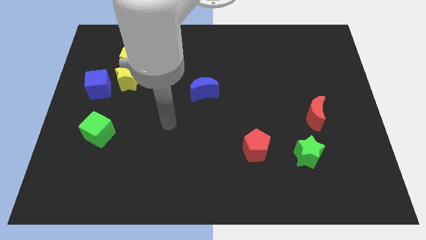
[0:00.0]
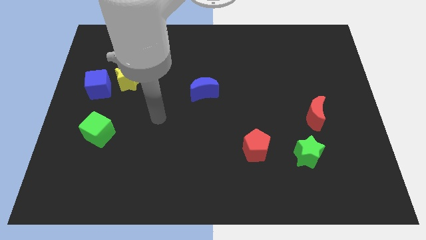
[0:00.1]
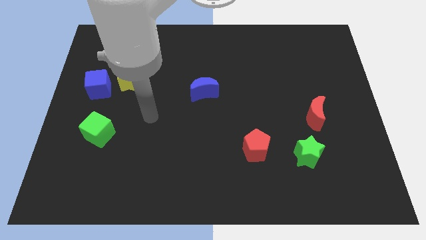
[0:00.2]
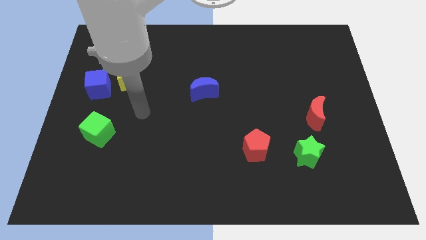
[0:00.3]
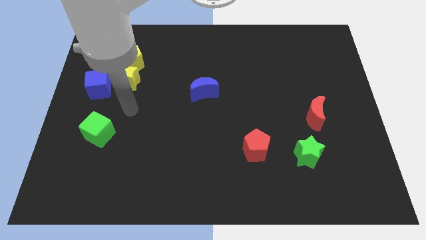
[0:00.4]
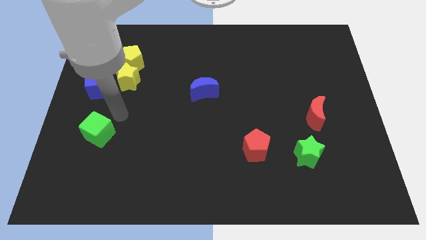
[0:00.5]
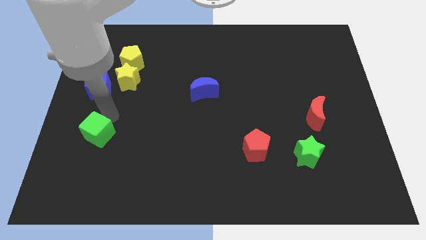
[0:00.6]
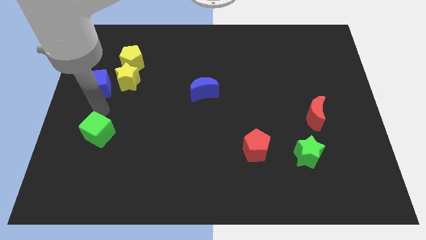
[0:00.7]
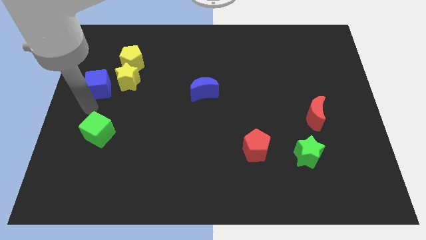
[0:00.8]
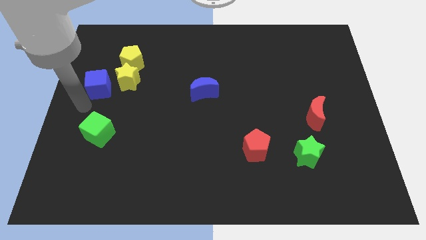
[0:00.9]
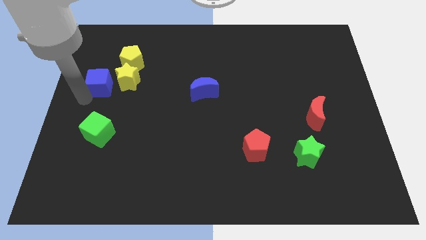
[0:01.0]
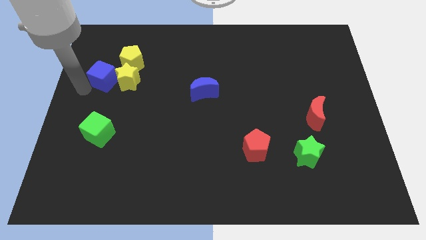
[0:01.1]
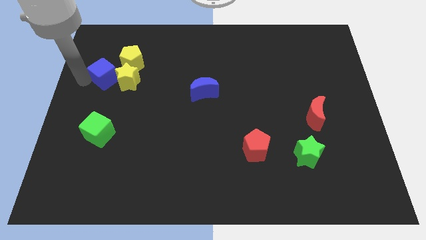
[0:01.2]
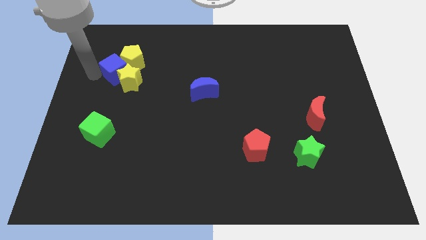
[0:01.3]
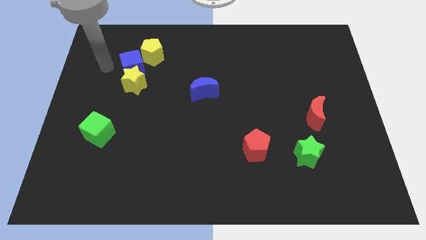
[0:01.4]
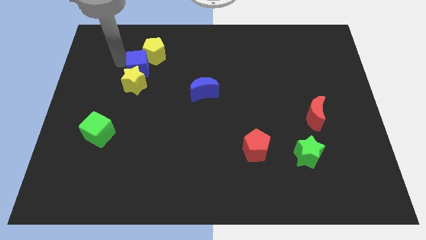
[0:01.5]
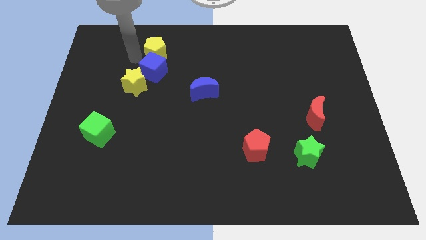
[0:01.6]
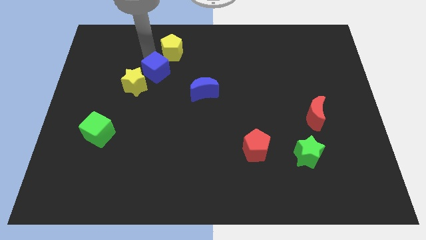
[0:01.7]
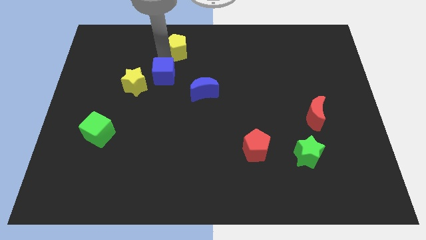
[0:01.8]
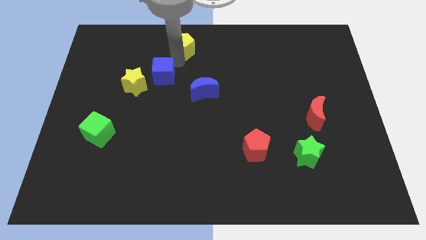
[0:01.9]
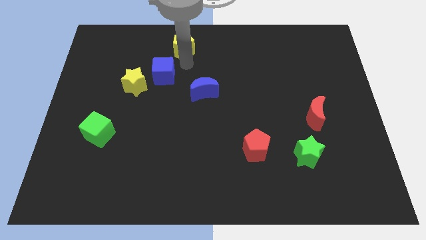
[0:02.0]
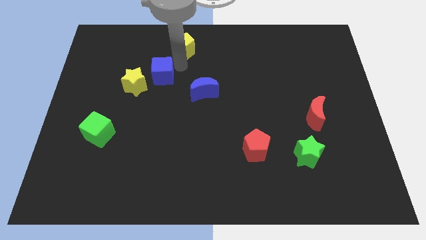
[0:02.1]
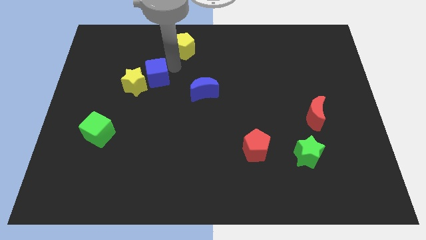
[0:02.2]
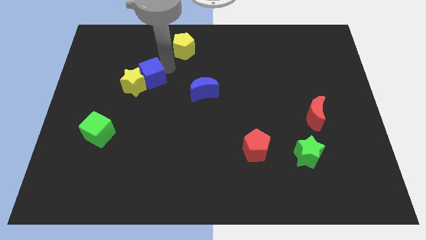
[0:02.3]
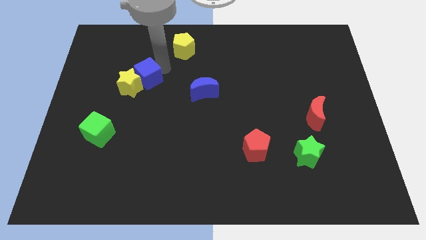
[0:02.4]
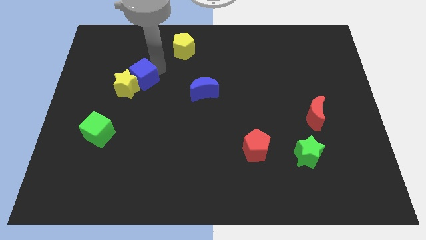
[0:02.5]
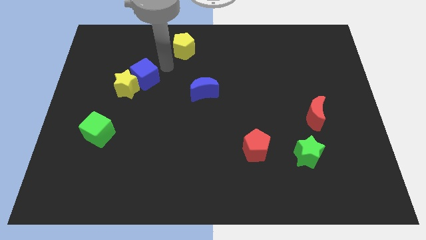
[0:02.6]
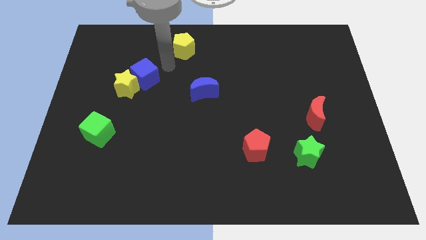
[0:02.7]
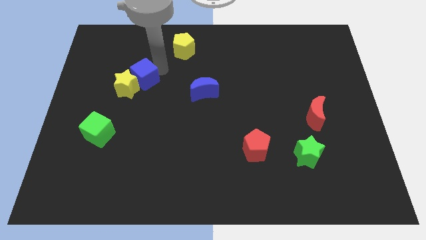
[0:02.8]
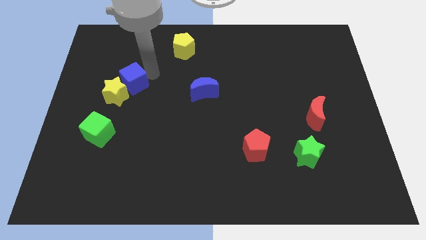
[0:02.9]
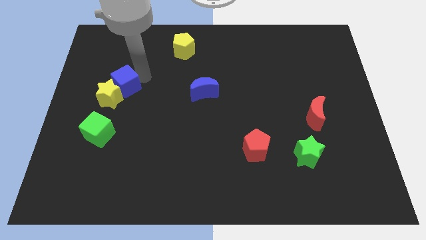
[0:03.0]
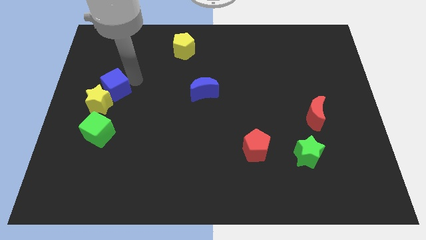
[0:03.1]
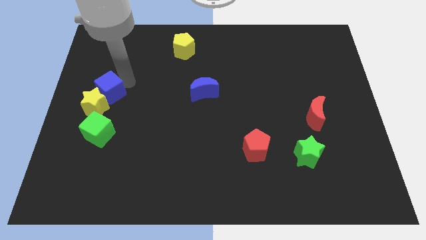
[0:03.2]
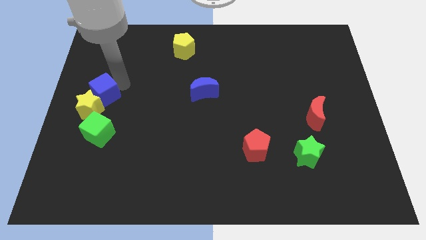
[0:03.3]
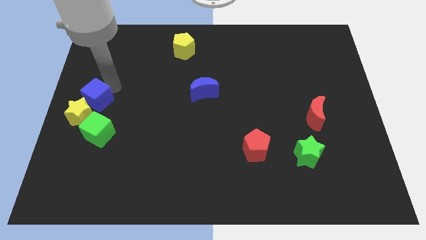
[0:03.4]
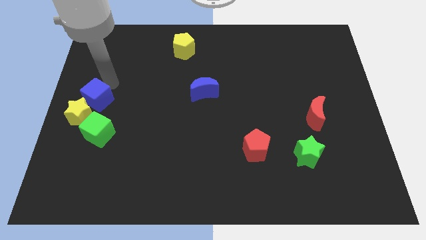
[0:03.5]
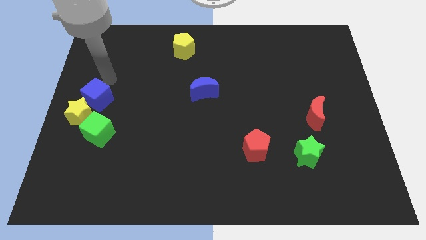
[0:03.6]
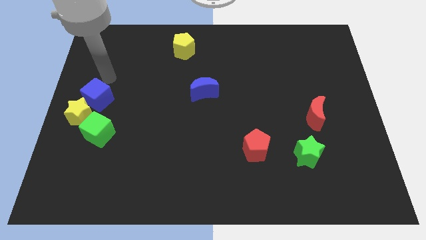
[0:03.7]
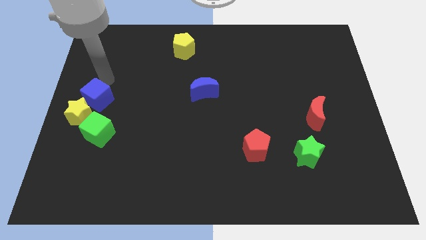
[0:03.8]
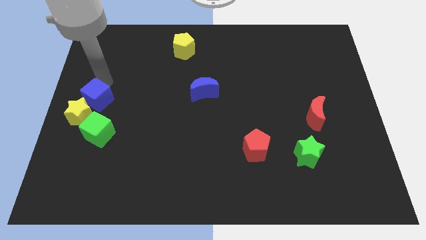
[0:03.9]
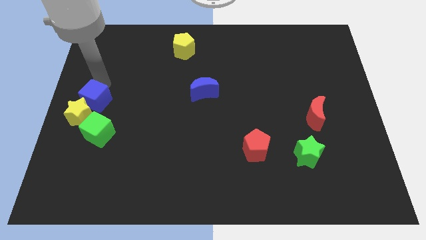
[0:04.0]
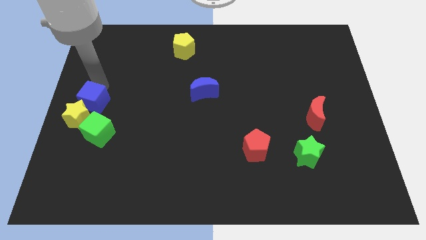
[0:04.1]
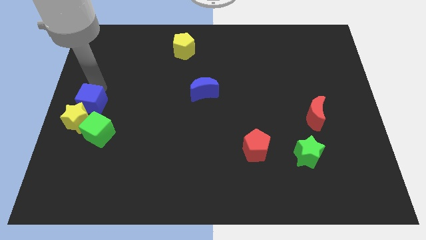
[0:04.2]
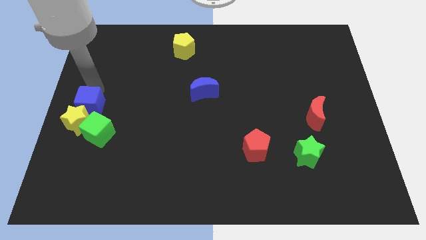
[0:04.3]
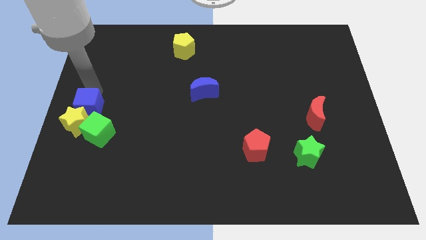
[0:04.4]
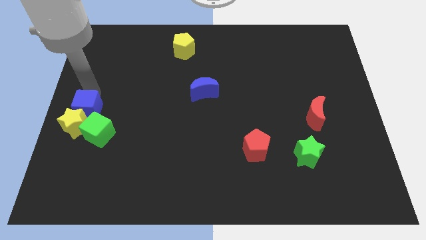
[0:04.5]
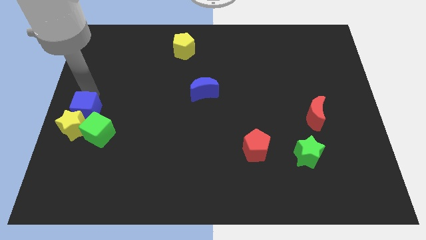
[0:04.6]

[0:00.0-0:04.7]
slightly move the blue cube down

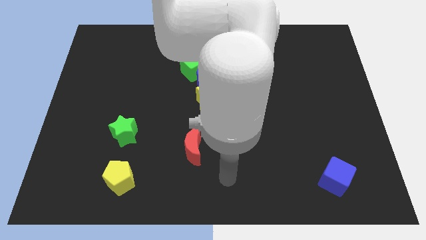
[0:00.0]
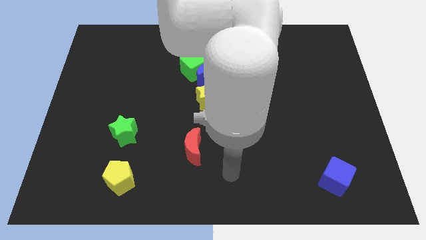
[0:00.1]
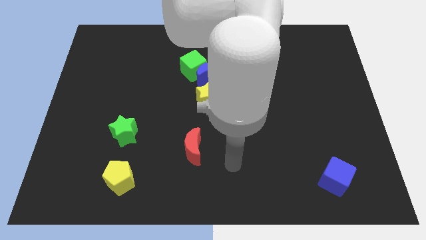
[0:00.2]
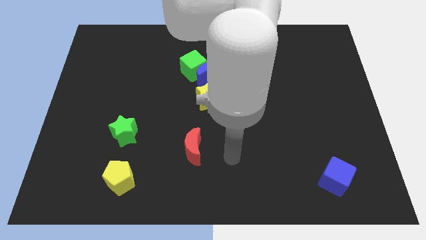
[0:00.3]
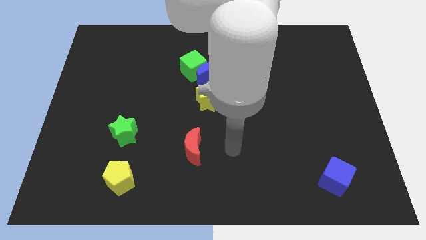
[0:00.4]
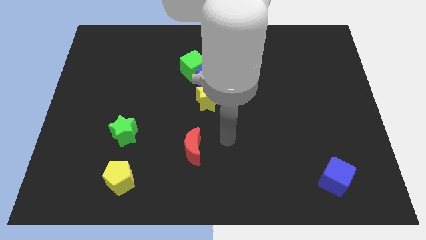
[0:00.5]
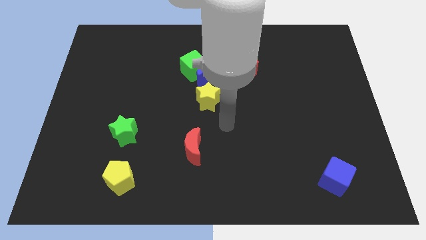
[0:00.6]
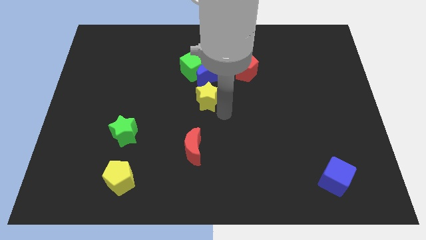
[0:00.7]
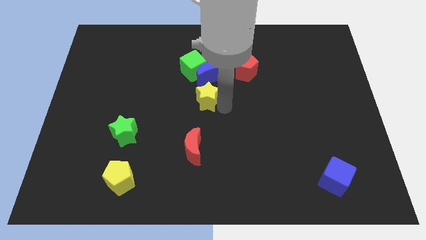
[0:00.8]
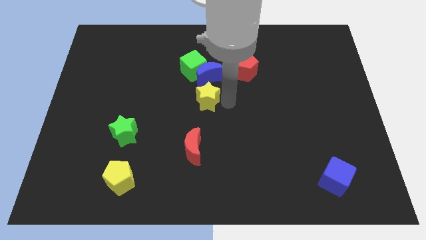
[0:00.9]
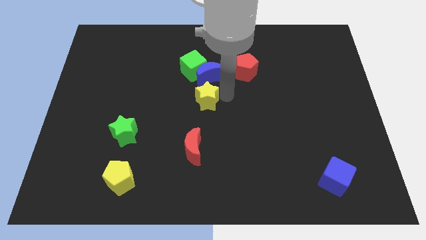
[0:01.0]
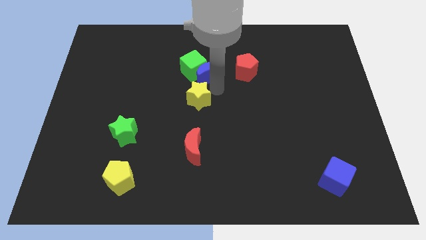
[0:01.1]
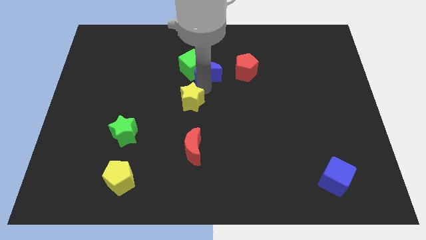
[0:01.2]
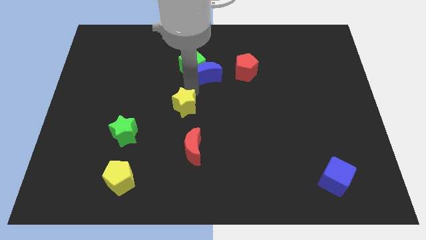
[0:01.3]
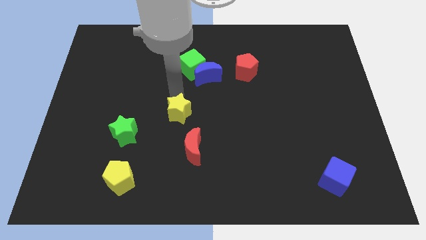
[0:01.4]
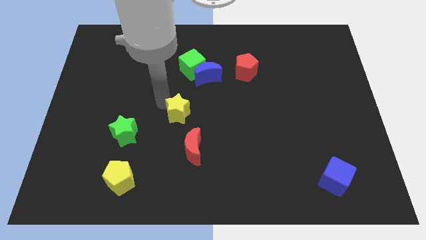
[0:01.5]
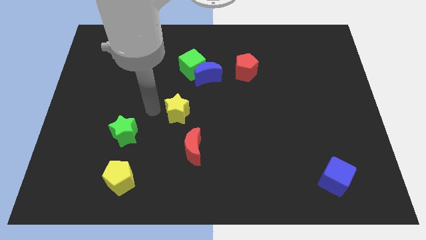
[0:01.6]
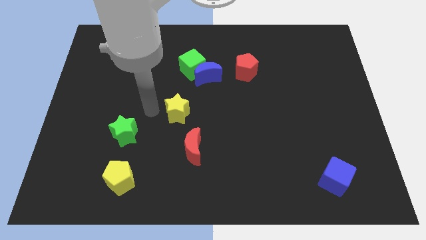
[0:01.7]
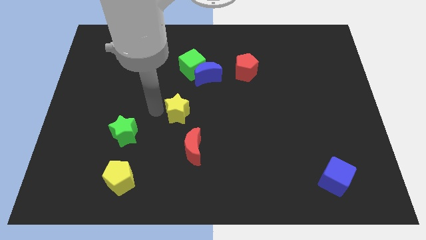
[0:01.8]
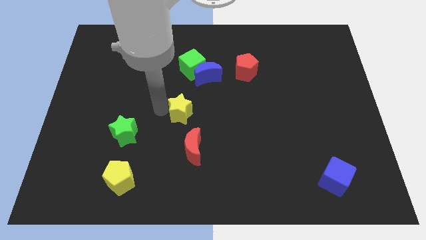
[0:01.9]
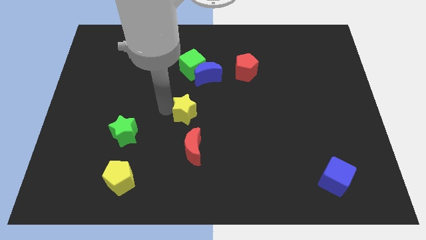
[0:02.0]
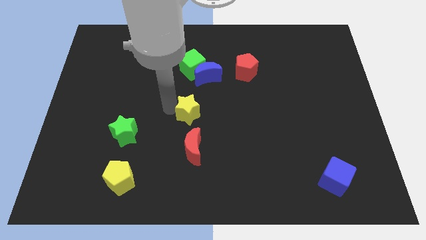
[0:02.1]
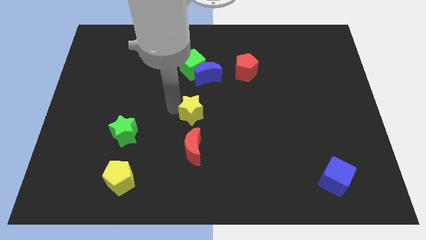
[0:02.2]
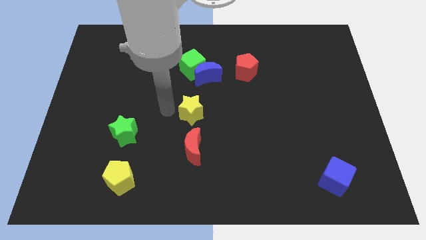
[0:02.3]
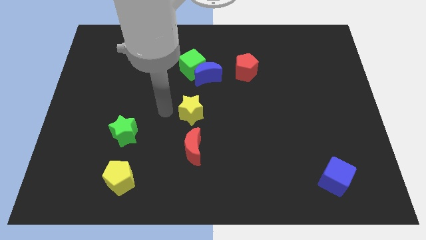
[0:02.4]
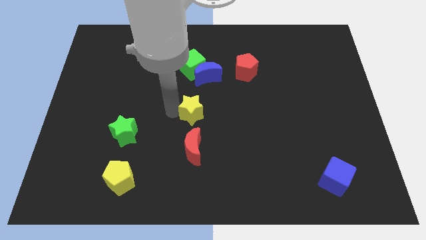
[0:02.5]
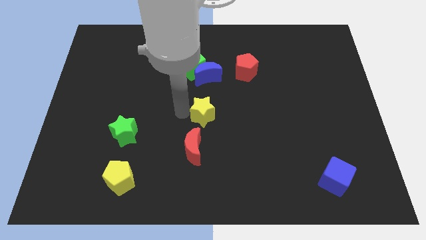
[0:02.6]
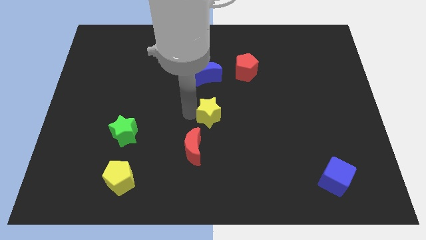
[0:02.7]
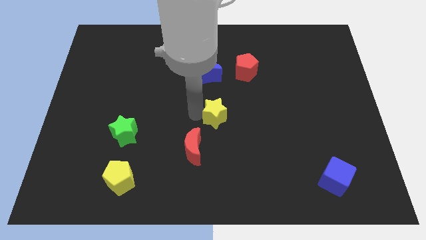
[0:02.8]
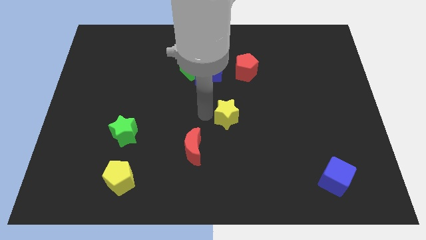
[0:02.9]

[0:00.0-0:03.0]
slide the yellow star downwards and right a little

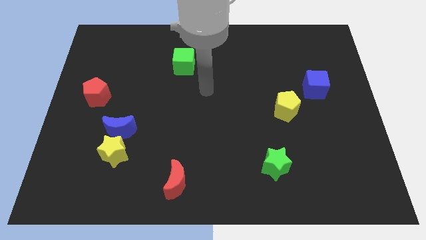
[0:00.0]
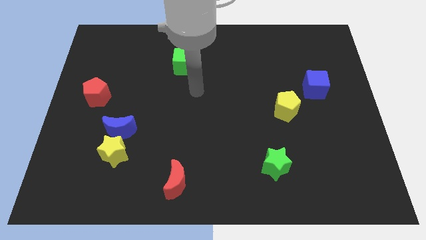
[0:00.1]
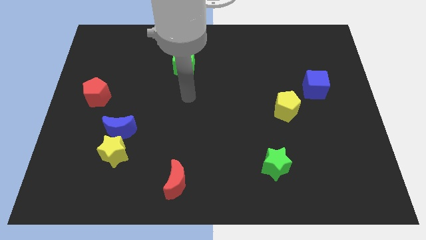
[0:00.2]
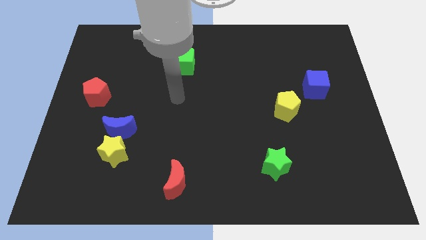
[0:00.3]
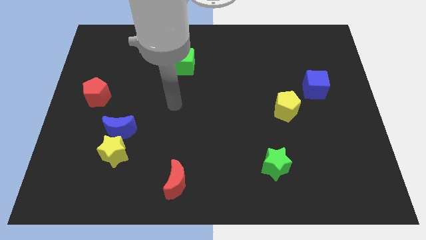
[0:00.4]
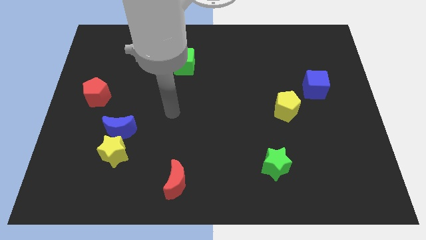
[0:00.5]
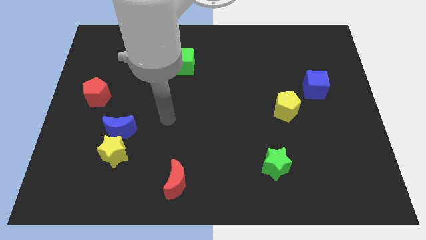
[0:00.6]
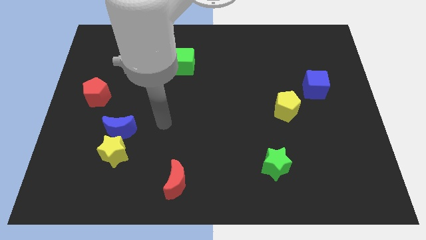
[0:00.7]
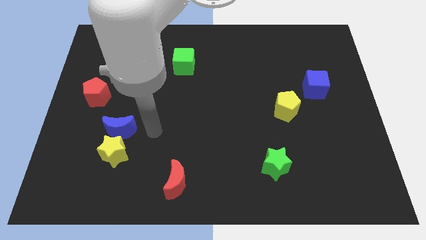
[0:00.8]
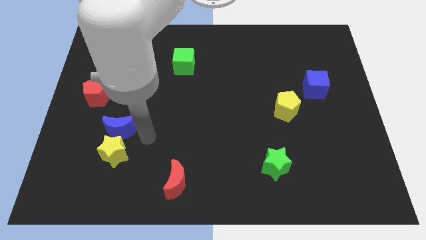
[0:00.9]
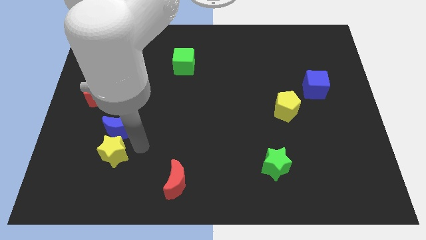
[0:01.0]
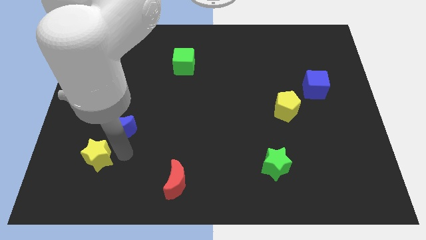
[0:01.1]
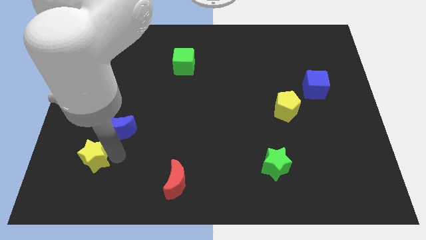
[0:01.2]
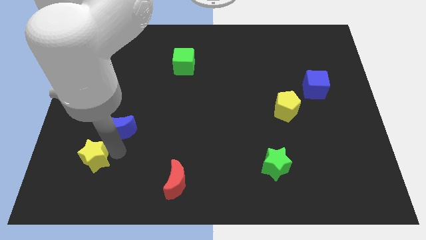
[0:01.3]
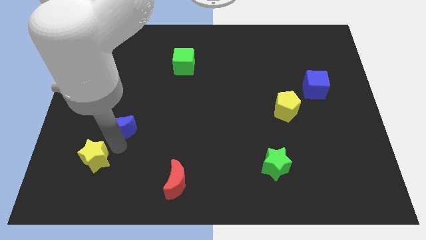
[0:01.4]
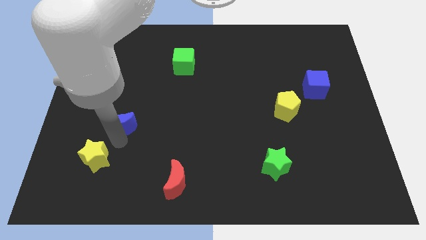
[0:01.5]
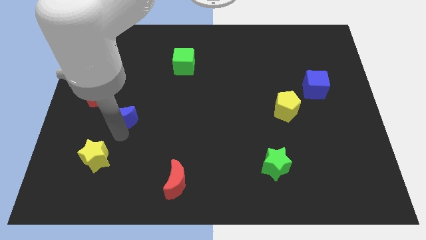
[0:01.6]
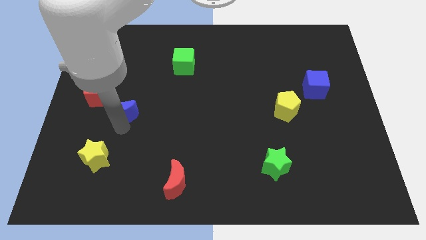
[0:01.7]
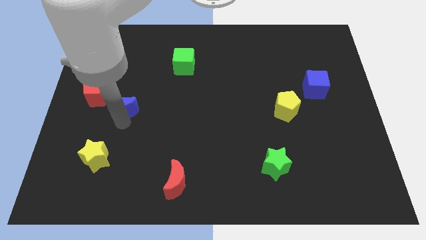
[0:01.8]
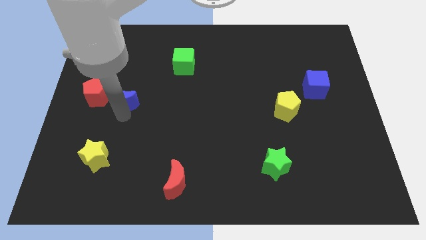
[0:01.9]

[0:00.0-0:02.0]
move the blue moon slightly up
